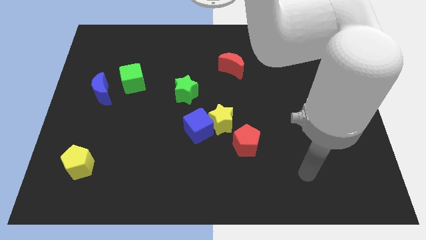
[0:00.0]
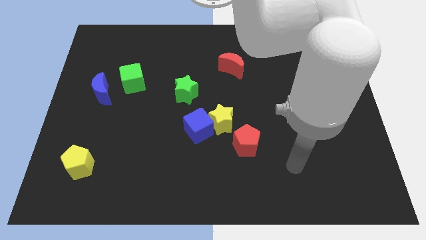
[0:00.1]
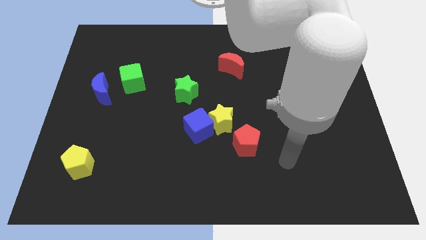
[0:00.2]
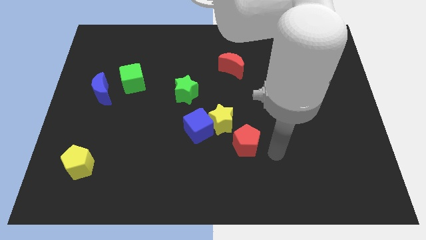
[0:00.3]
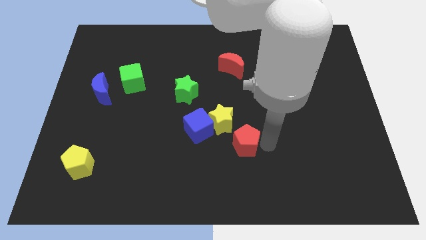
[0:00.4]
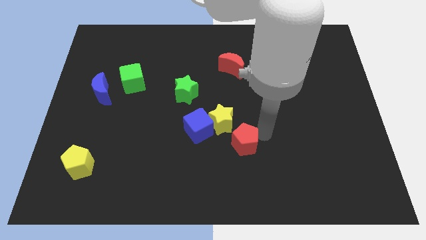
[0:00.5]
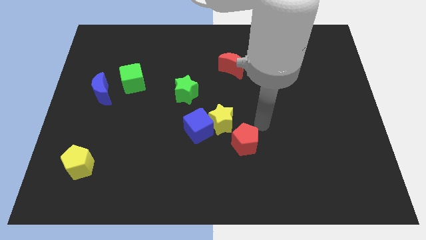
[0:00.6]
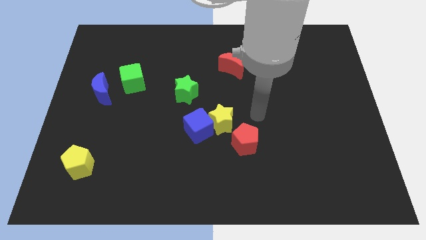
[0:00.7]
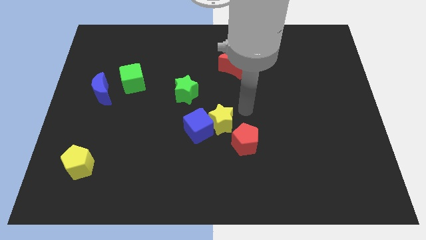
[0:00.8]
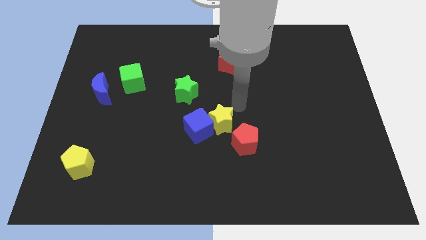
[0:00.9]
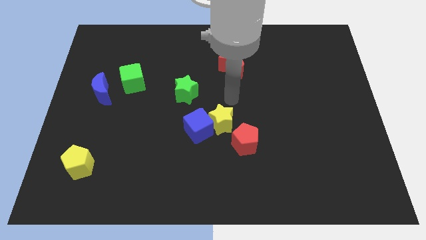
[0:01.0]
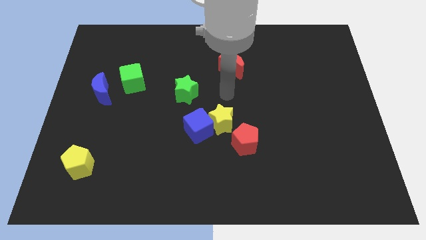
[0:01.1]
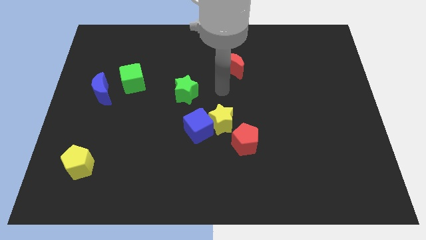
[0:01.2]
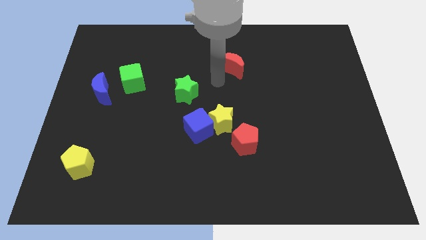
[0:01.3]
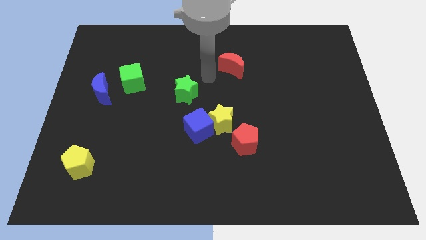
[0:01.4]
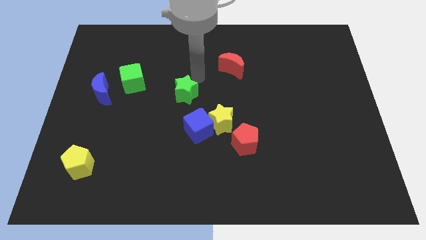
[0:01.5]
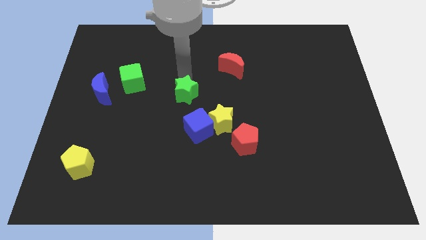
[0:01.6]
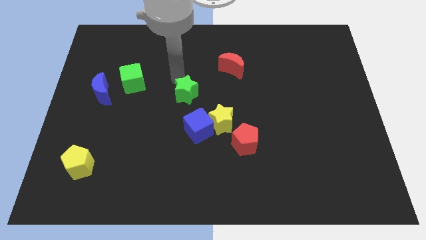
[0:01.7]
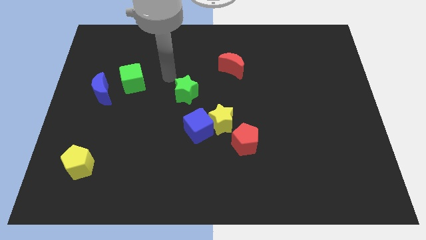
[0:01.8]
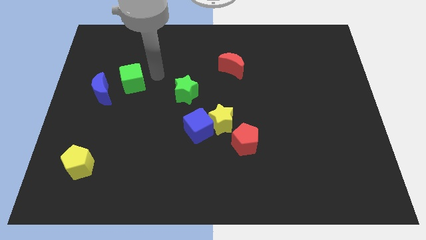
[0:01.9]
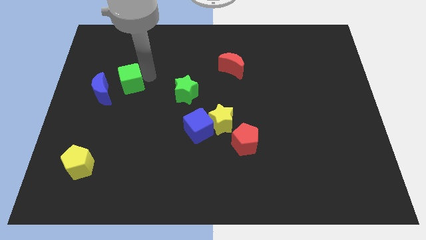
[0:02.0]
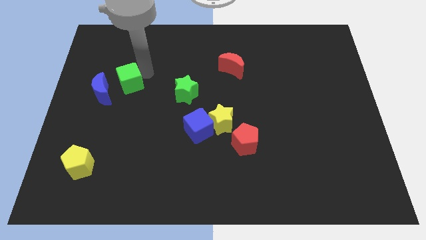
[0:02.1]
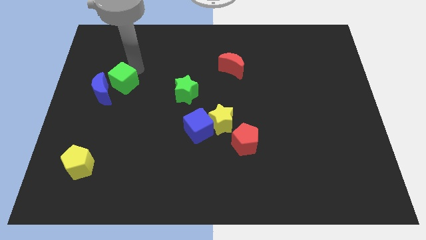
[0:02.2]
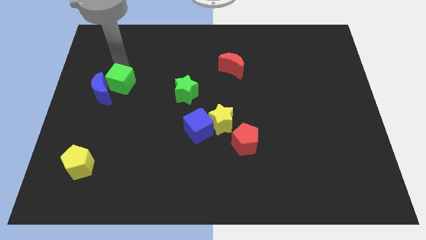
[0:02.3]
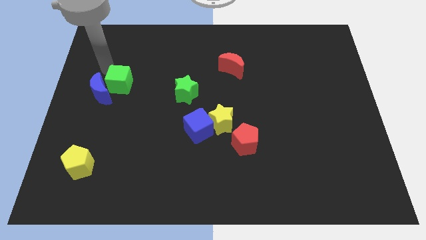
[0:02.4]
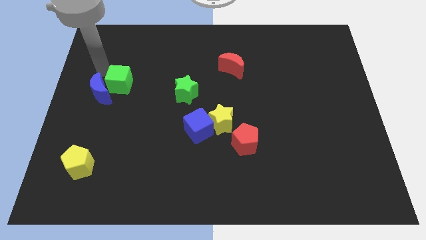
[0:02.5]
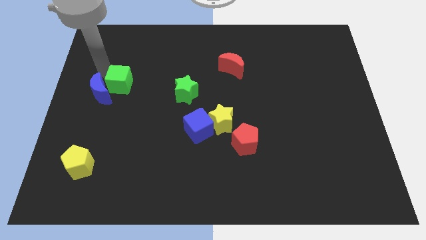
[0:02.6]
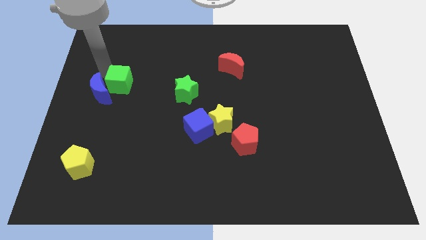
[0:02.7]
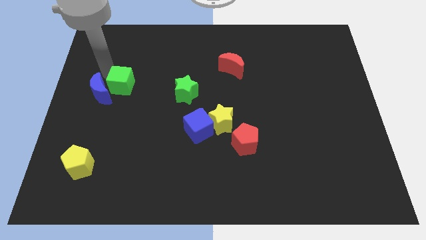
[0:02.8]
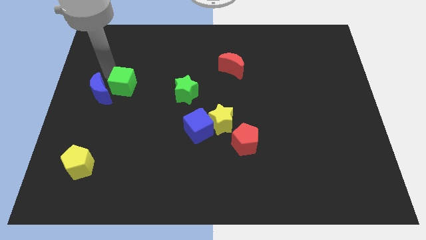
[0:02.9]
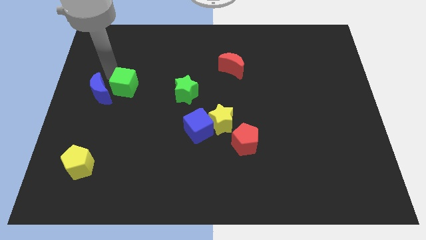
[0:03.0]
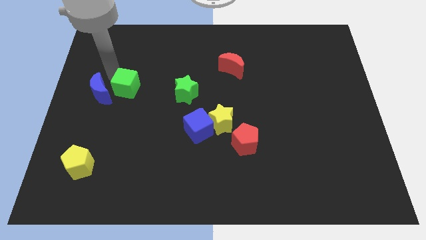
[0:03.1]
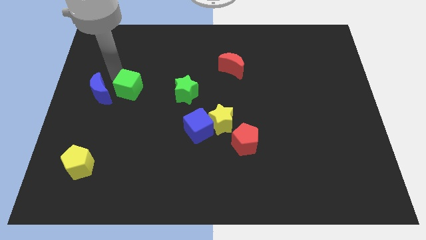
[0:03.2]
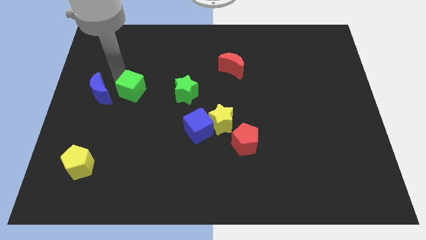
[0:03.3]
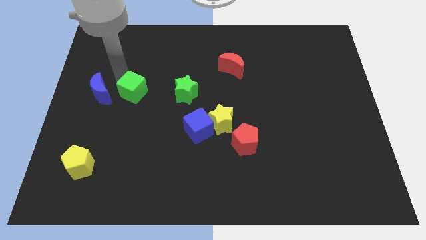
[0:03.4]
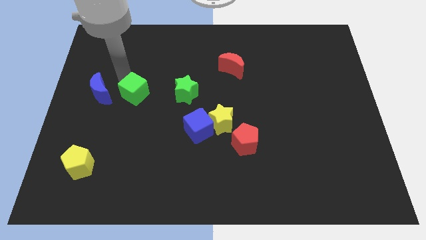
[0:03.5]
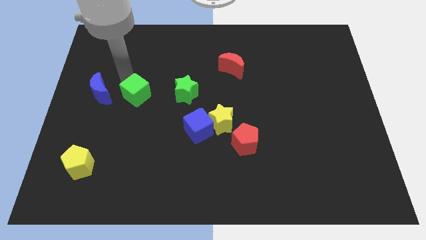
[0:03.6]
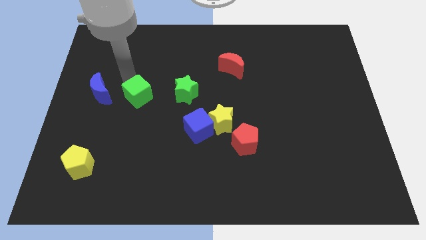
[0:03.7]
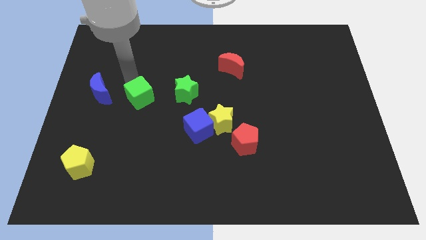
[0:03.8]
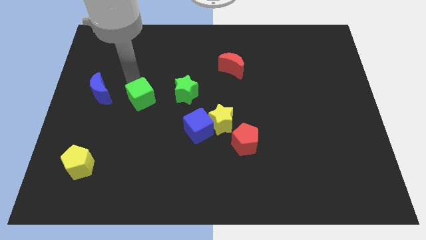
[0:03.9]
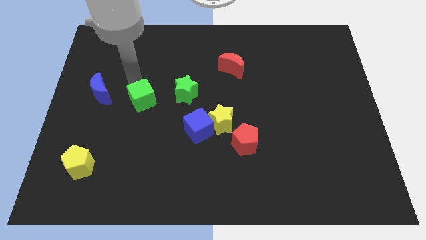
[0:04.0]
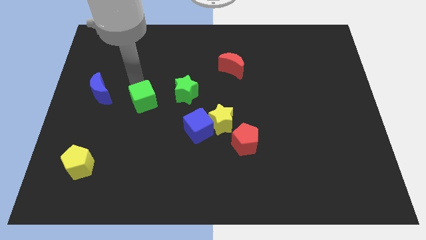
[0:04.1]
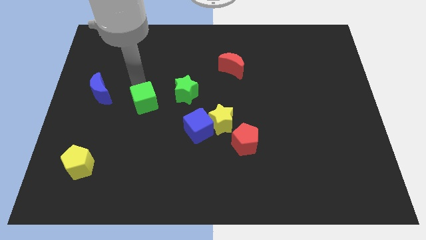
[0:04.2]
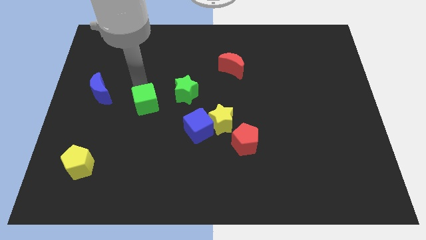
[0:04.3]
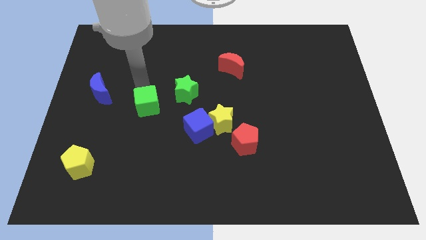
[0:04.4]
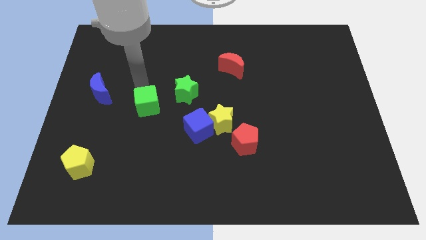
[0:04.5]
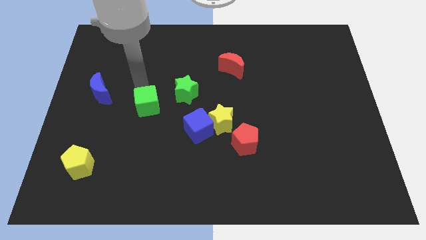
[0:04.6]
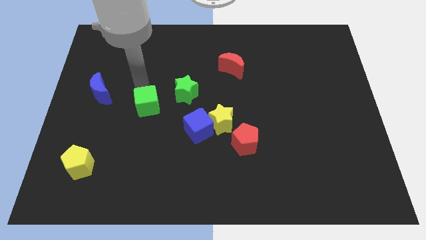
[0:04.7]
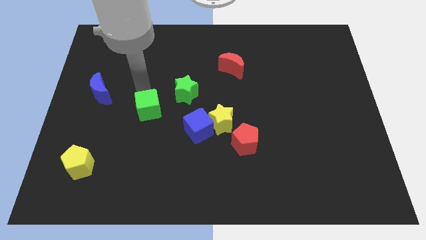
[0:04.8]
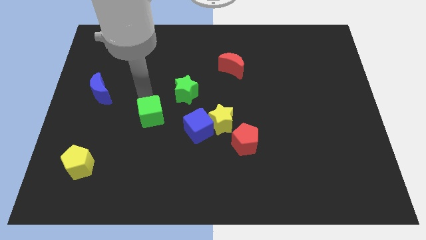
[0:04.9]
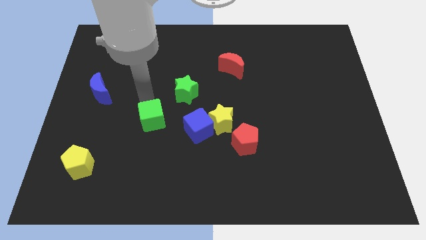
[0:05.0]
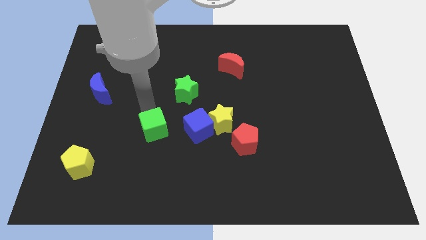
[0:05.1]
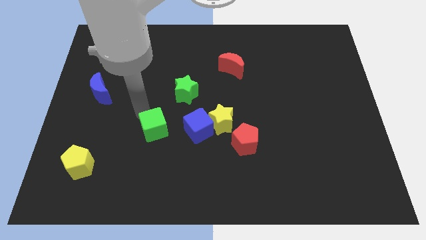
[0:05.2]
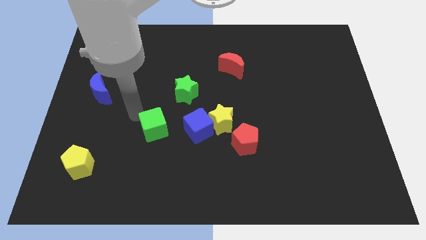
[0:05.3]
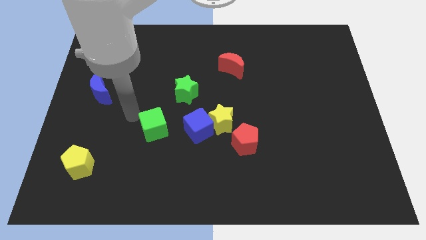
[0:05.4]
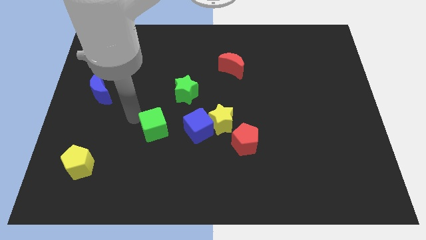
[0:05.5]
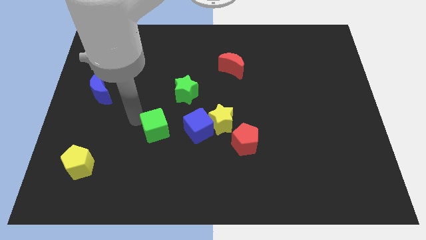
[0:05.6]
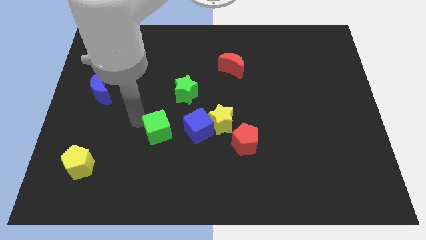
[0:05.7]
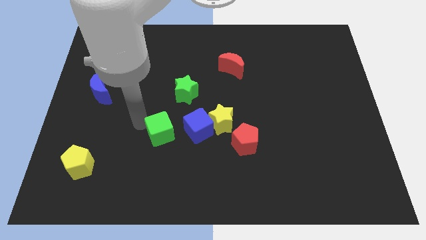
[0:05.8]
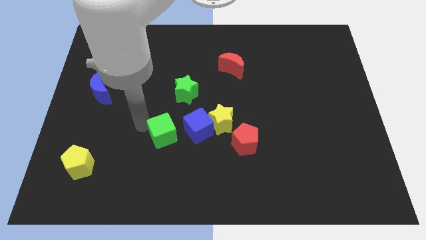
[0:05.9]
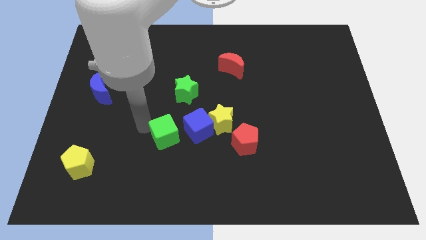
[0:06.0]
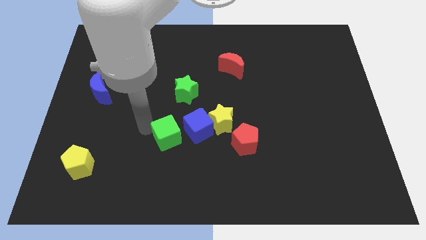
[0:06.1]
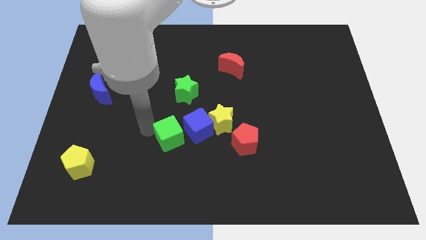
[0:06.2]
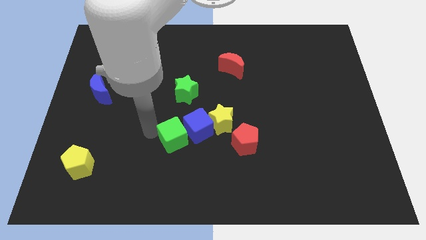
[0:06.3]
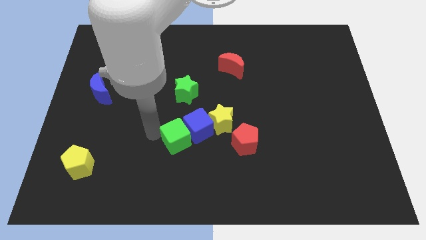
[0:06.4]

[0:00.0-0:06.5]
push the green cube downwards and right diagonally

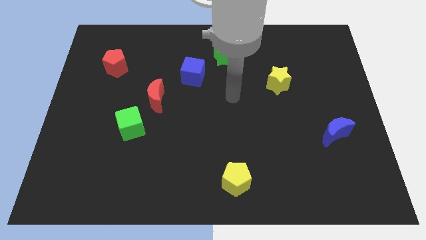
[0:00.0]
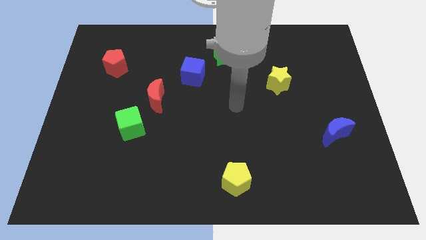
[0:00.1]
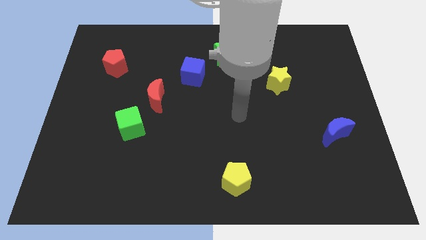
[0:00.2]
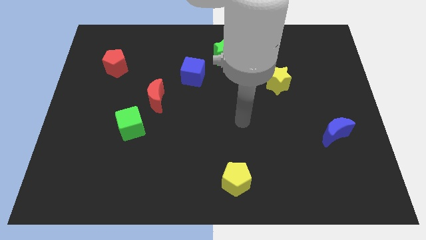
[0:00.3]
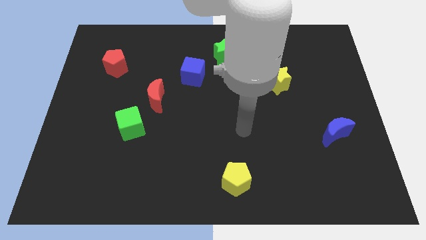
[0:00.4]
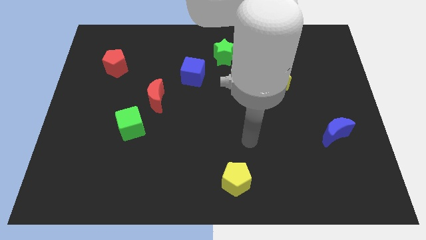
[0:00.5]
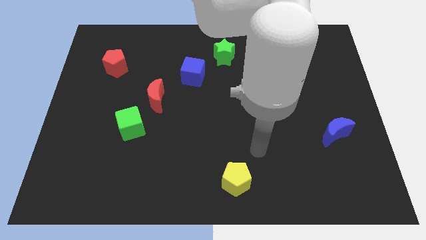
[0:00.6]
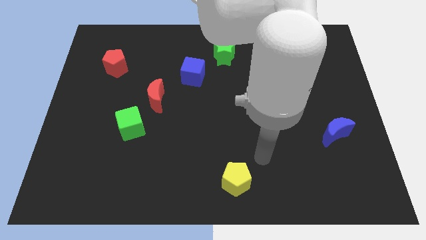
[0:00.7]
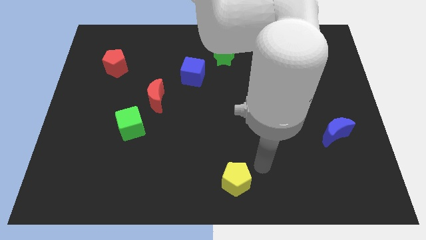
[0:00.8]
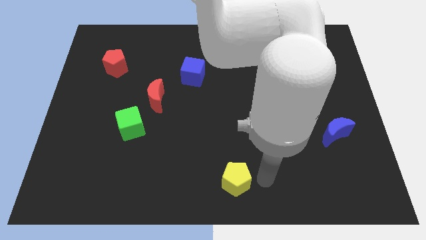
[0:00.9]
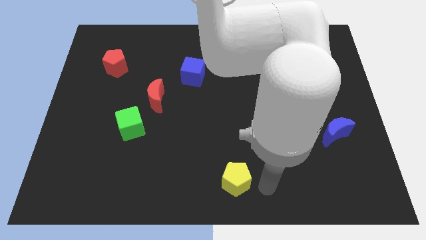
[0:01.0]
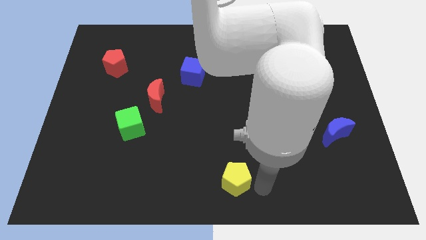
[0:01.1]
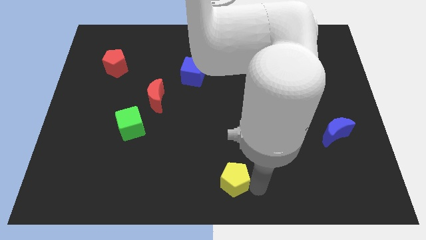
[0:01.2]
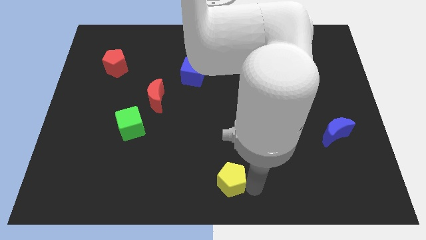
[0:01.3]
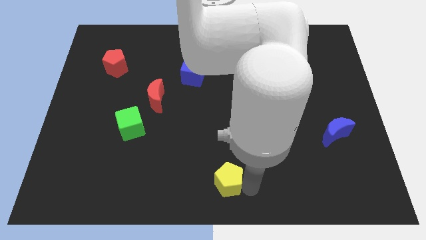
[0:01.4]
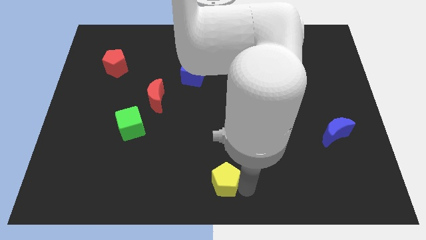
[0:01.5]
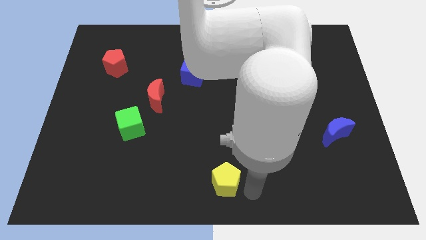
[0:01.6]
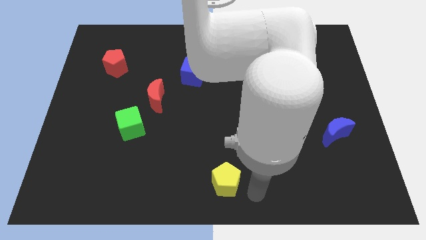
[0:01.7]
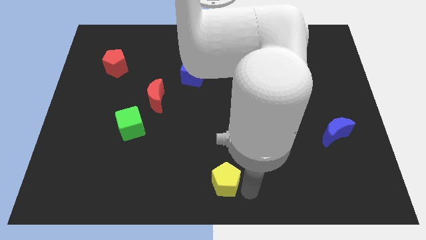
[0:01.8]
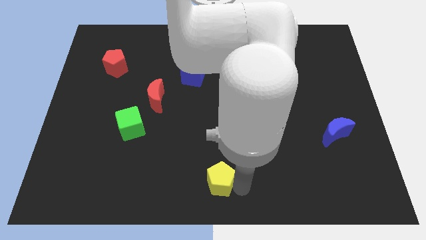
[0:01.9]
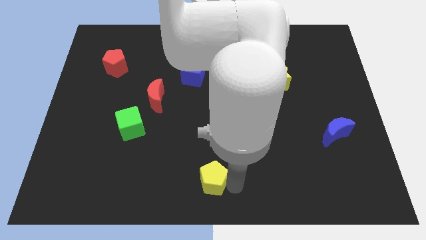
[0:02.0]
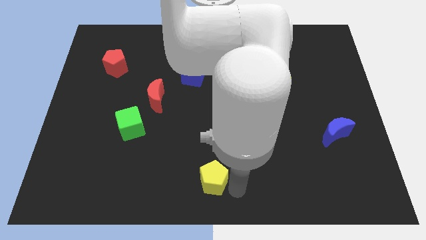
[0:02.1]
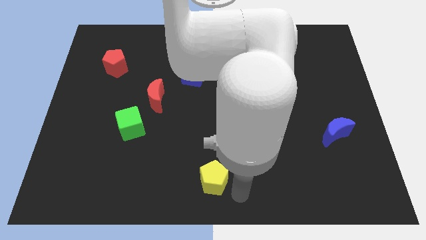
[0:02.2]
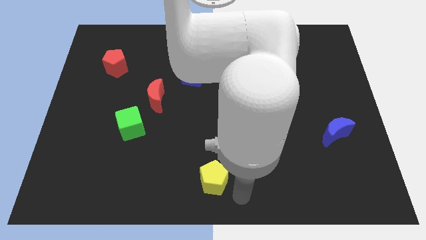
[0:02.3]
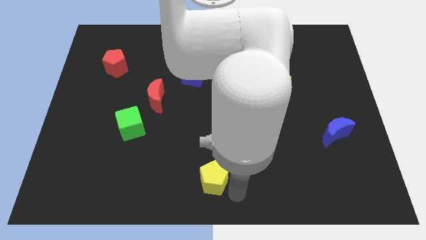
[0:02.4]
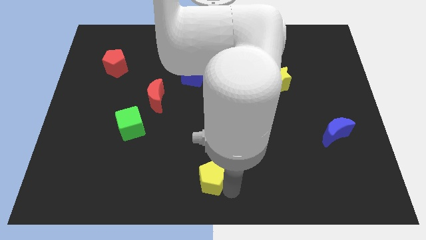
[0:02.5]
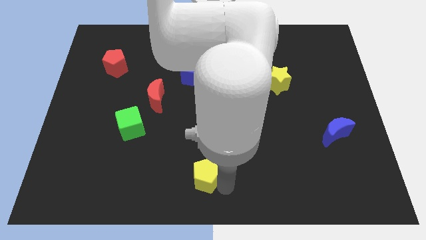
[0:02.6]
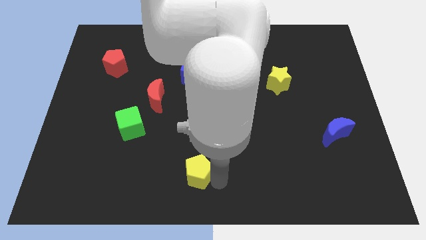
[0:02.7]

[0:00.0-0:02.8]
slide the yellow pentagon to the left a bit
